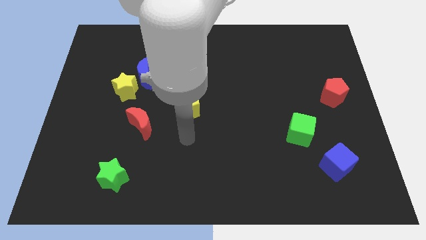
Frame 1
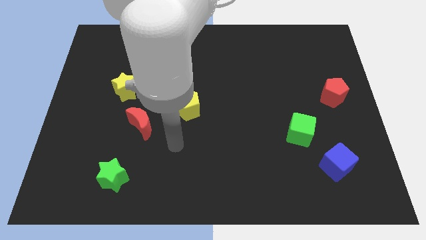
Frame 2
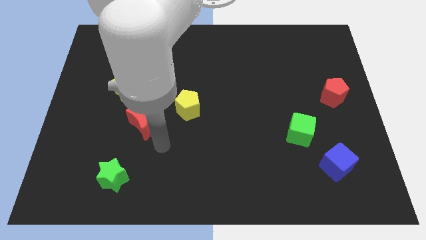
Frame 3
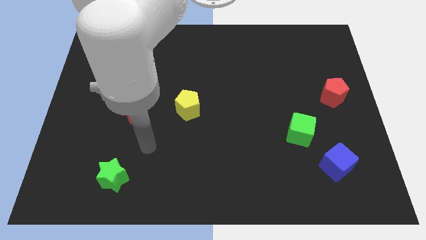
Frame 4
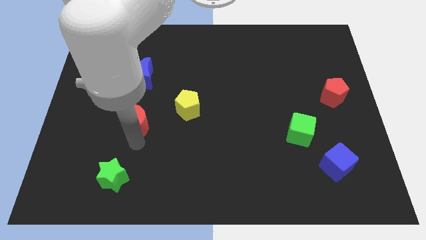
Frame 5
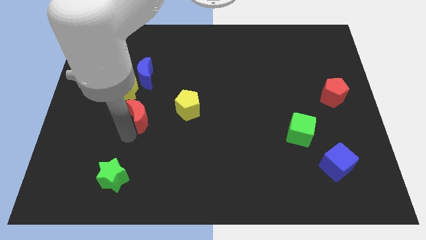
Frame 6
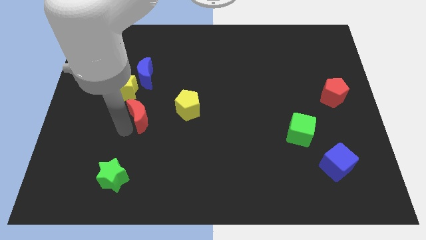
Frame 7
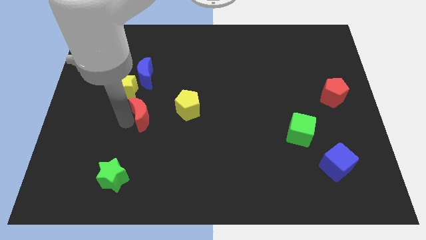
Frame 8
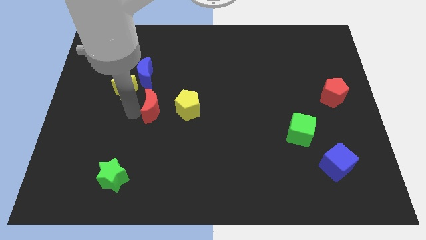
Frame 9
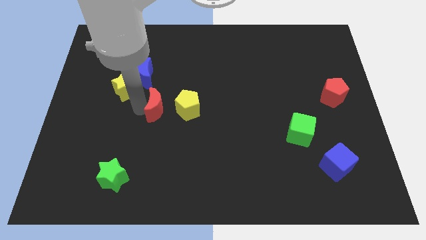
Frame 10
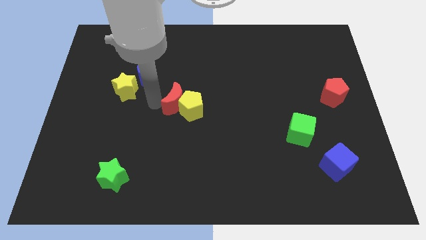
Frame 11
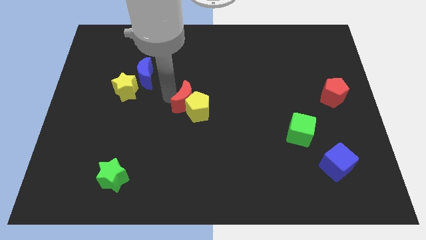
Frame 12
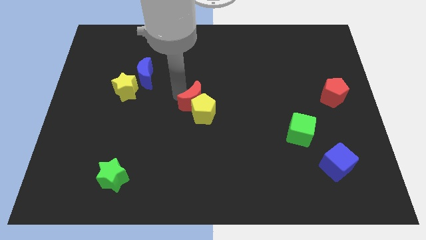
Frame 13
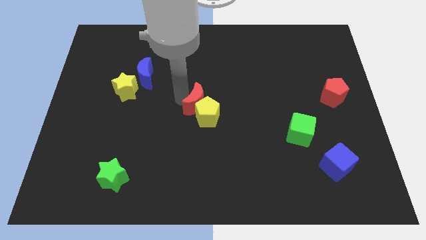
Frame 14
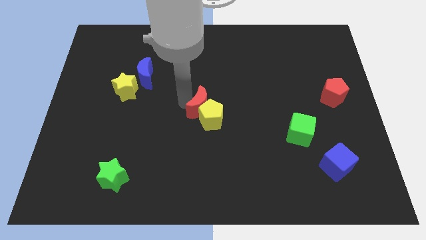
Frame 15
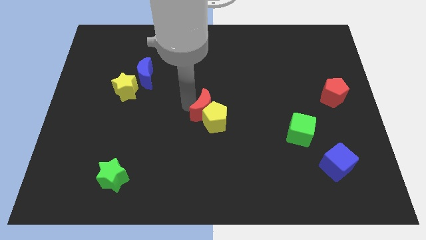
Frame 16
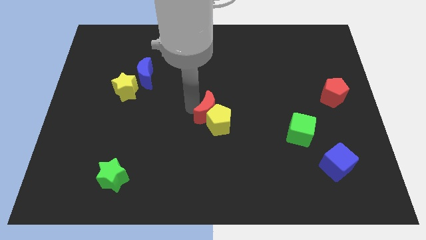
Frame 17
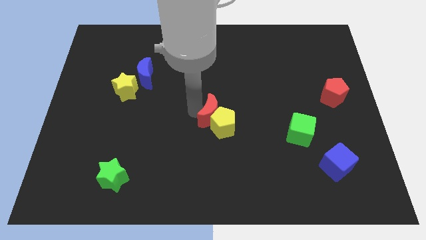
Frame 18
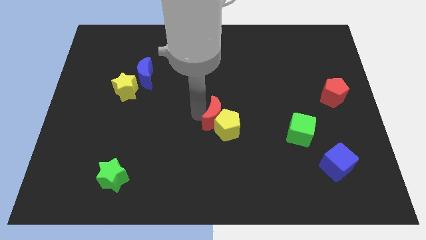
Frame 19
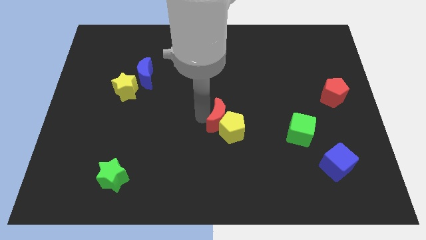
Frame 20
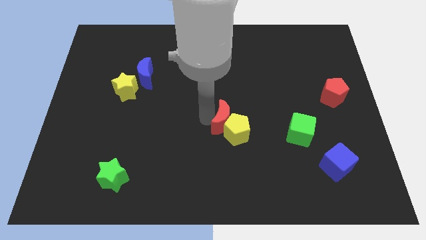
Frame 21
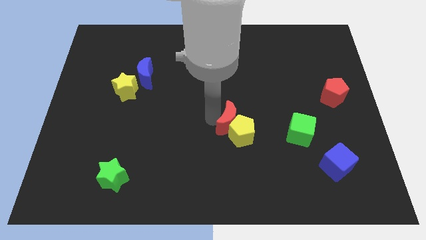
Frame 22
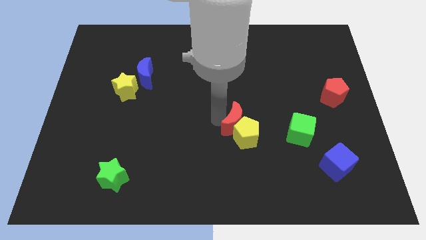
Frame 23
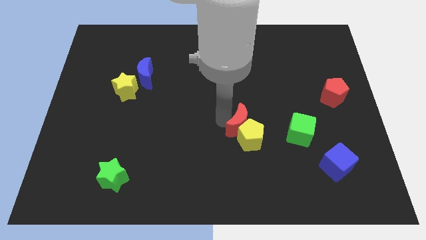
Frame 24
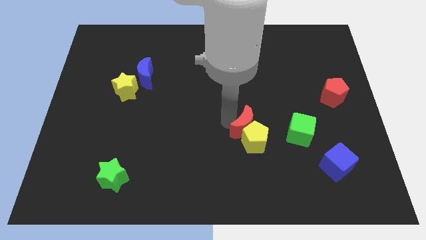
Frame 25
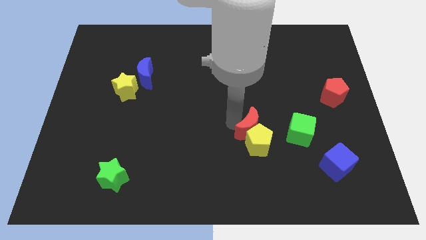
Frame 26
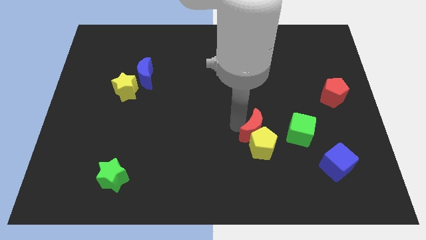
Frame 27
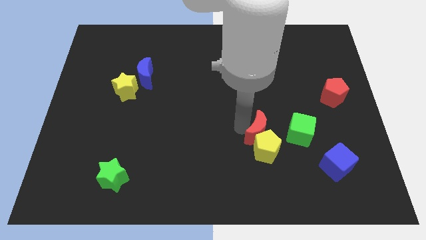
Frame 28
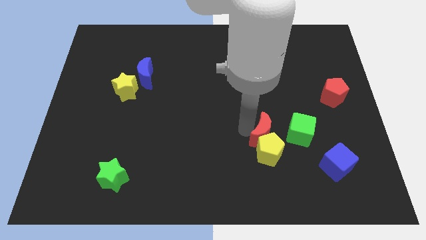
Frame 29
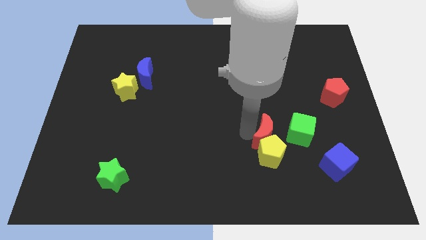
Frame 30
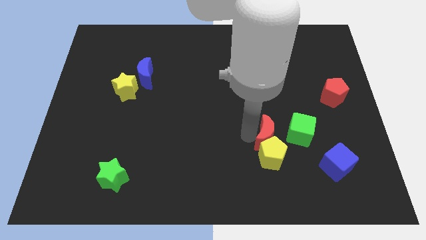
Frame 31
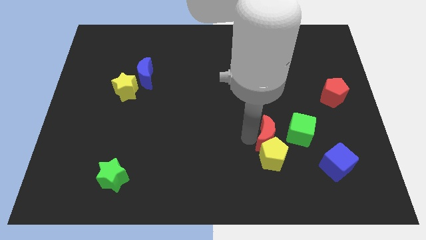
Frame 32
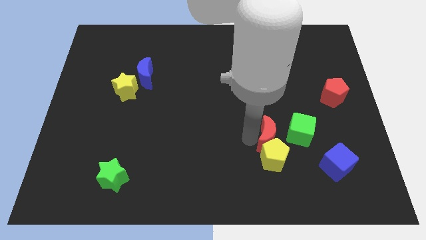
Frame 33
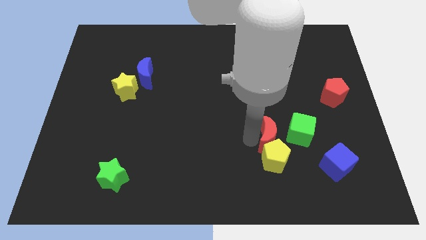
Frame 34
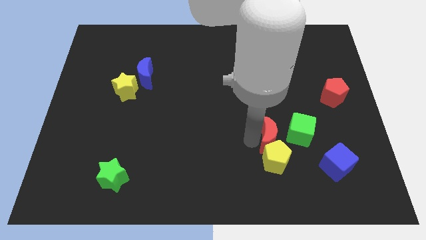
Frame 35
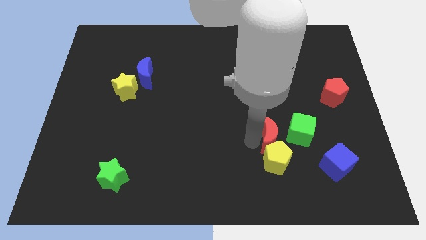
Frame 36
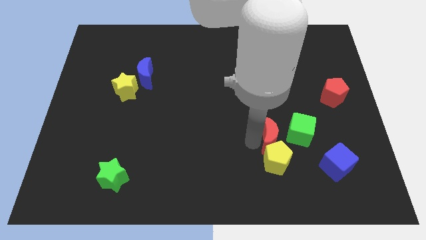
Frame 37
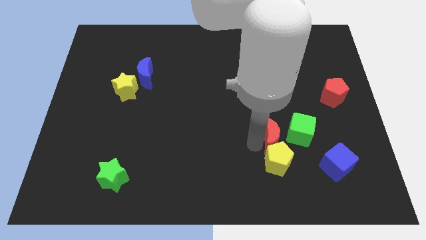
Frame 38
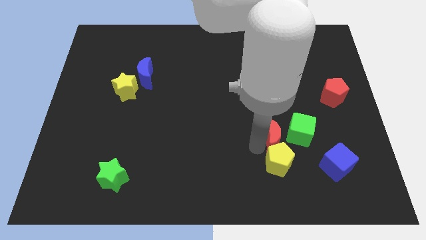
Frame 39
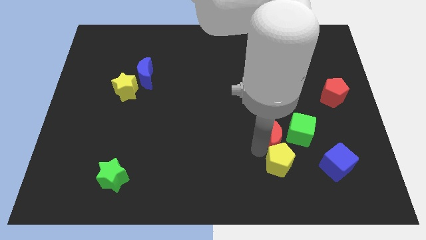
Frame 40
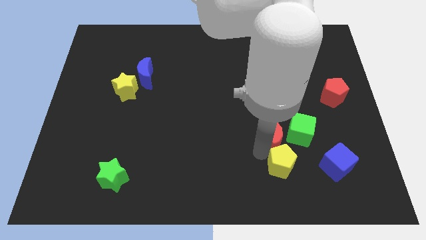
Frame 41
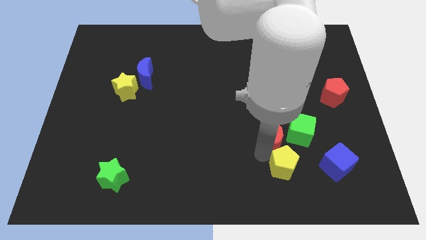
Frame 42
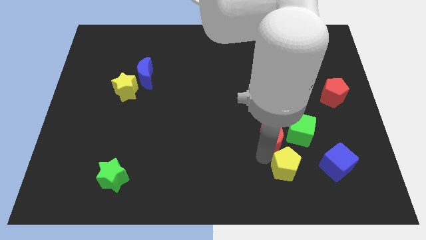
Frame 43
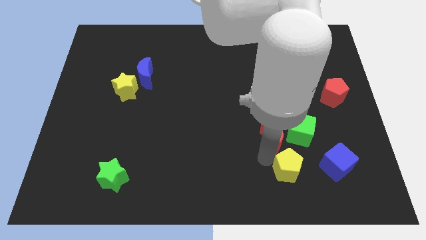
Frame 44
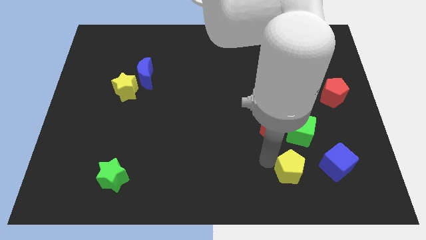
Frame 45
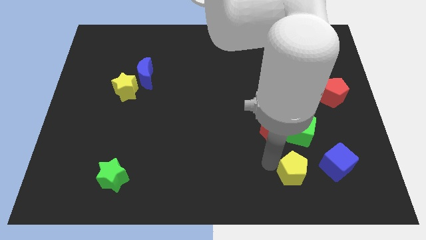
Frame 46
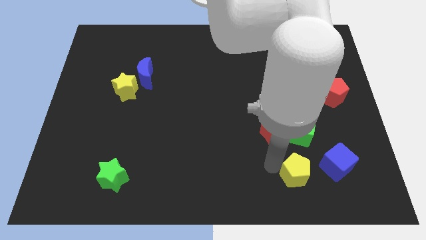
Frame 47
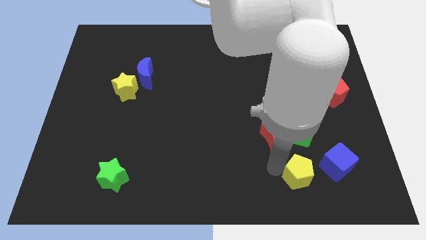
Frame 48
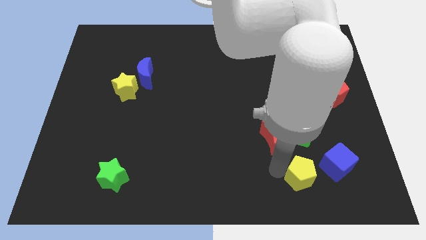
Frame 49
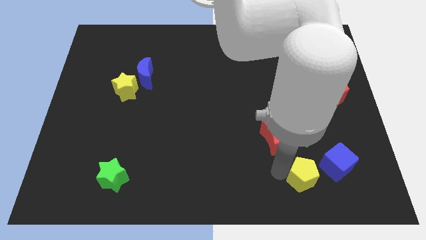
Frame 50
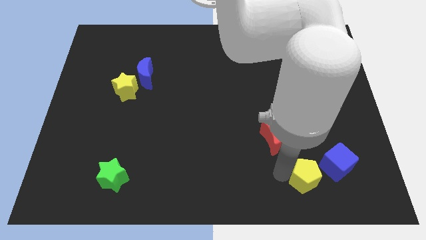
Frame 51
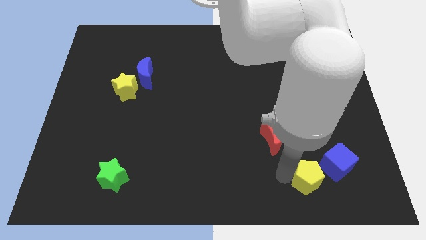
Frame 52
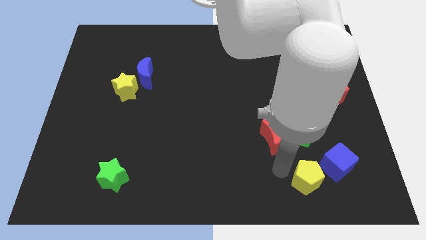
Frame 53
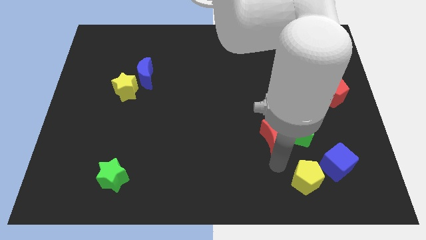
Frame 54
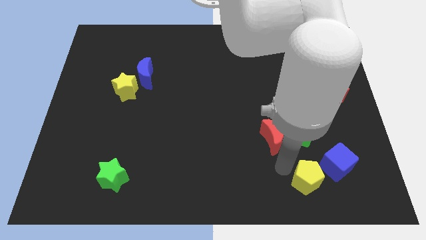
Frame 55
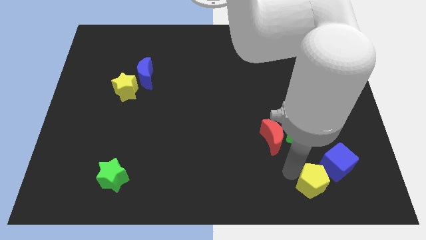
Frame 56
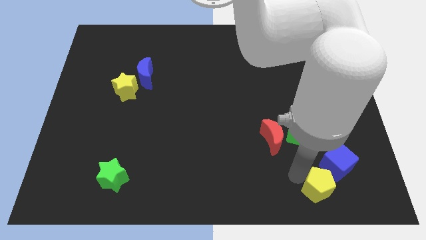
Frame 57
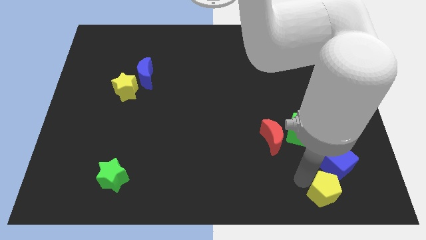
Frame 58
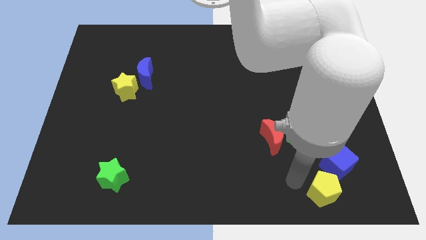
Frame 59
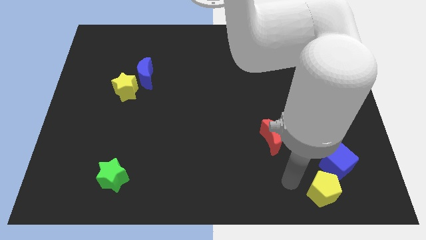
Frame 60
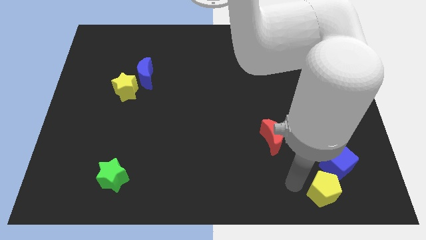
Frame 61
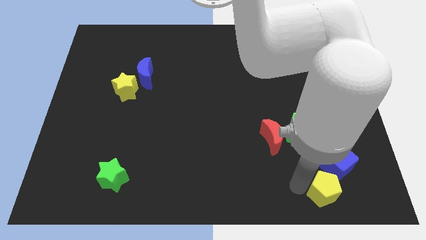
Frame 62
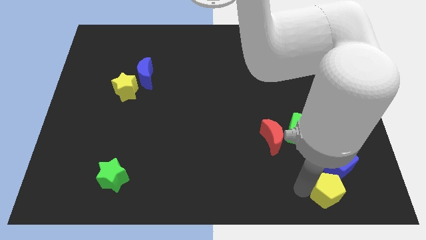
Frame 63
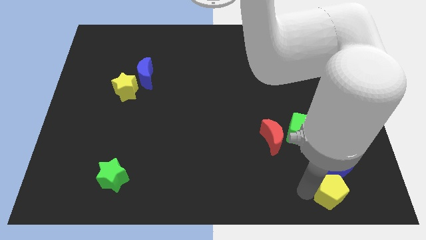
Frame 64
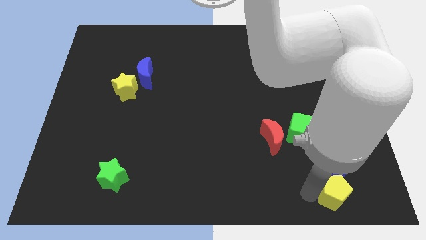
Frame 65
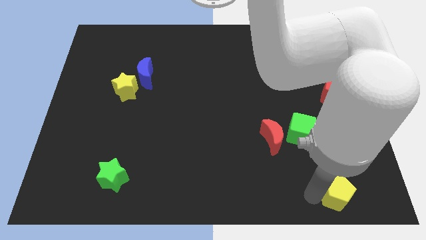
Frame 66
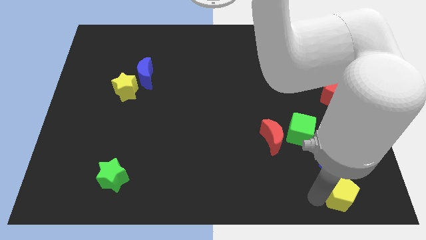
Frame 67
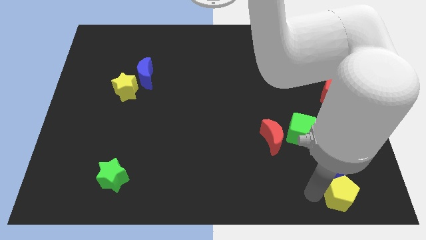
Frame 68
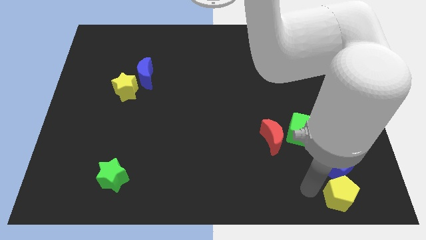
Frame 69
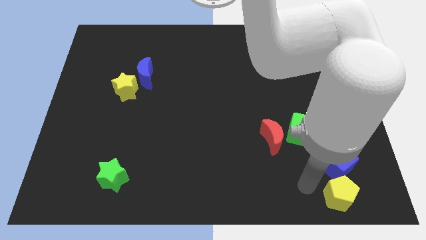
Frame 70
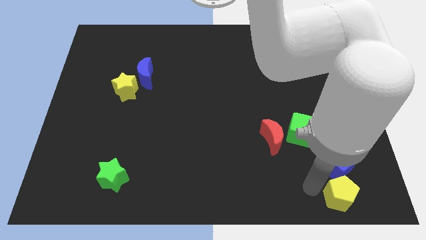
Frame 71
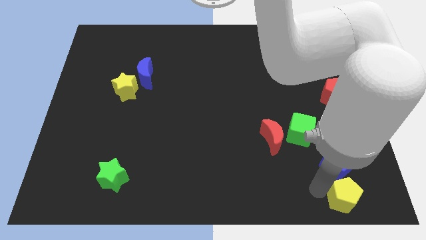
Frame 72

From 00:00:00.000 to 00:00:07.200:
move the yellow pentagon to the bottom right
